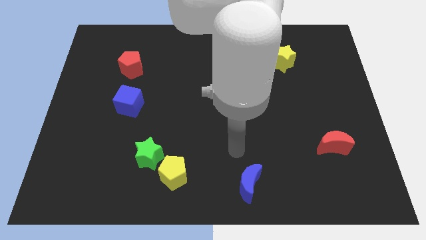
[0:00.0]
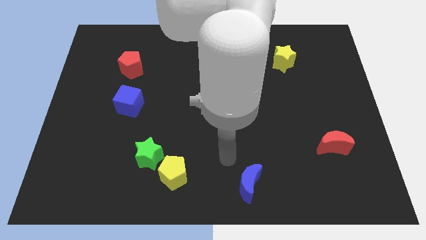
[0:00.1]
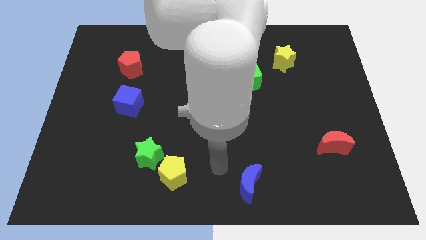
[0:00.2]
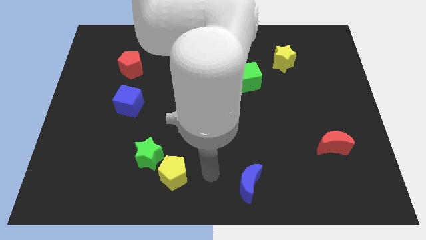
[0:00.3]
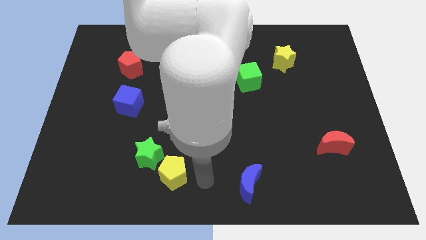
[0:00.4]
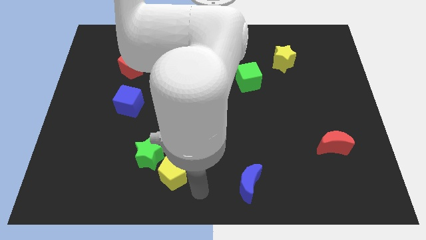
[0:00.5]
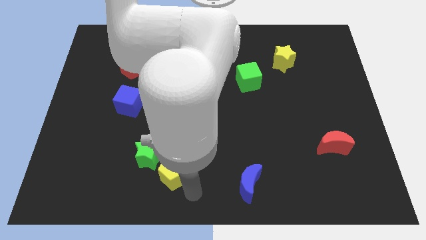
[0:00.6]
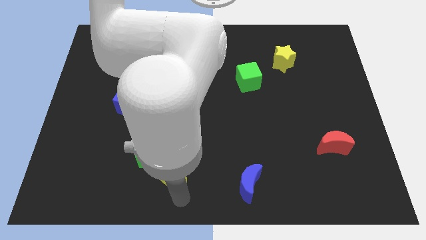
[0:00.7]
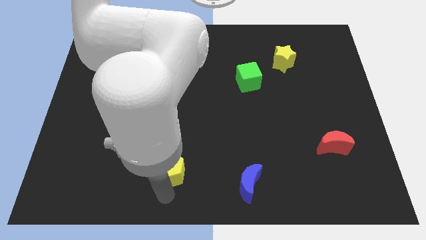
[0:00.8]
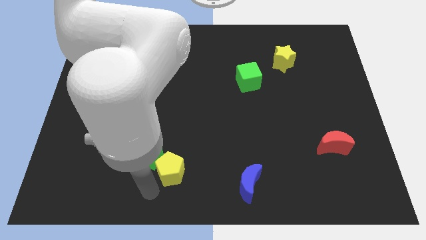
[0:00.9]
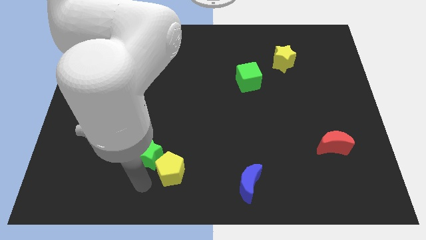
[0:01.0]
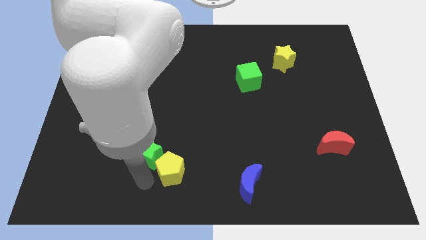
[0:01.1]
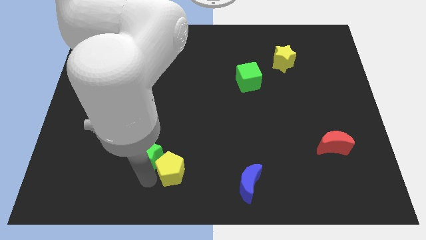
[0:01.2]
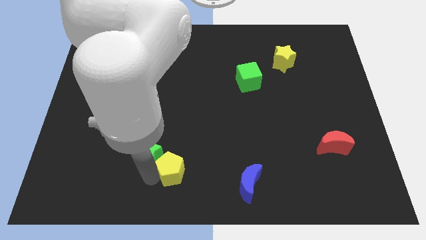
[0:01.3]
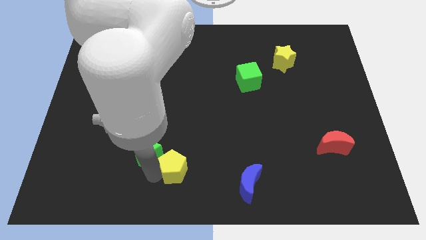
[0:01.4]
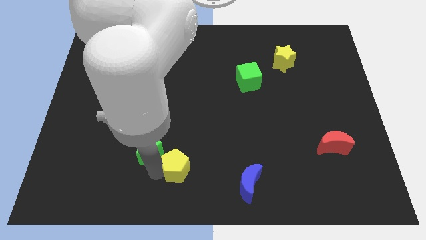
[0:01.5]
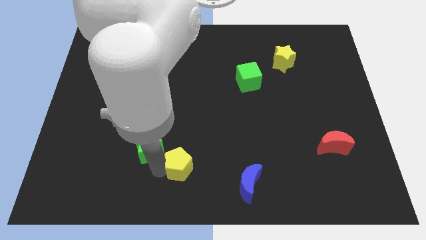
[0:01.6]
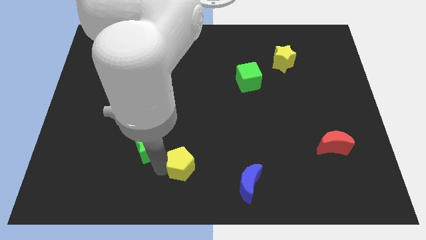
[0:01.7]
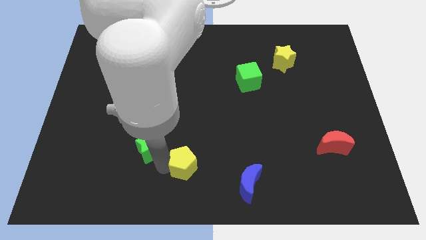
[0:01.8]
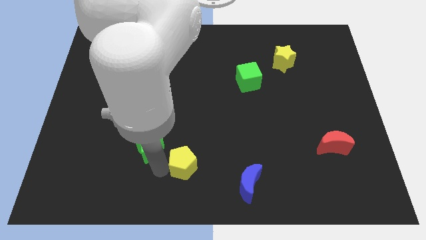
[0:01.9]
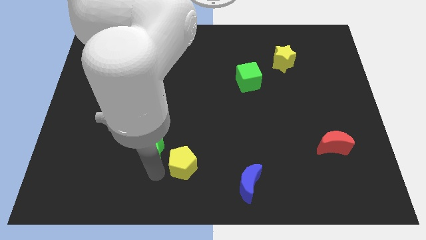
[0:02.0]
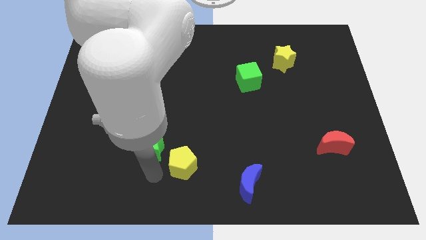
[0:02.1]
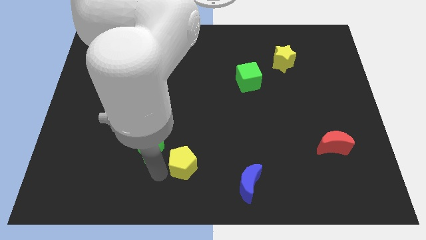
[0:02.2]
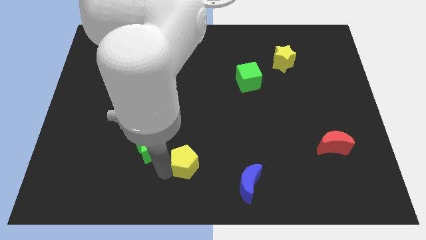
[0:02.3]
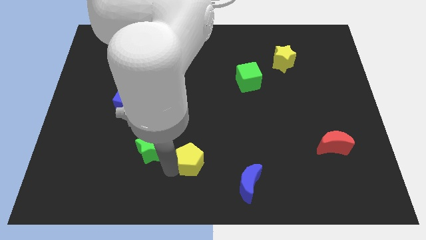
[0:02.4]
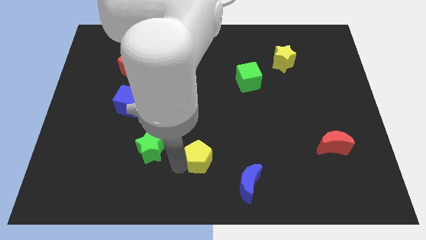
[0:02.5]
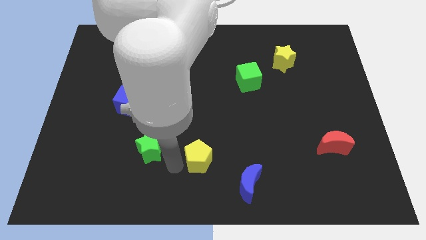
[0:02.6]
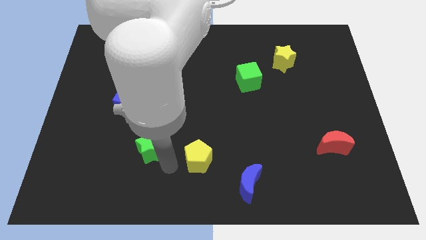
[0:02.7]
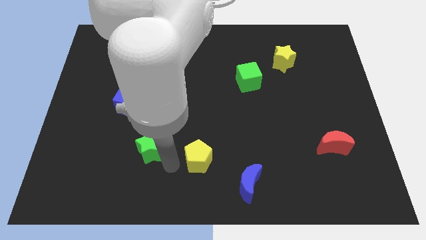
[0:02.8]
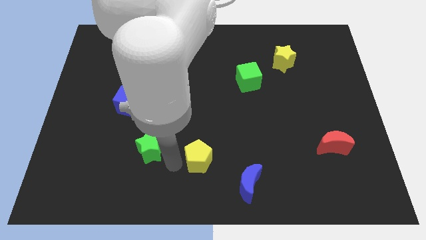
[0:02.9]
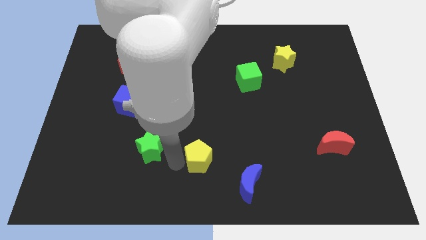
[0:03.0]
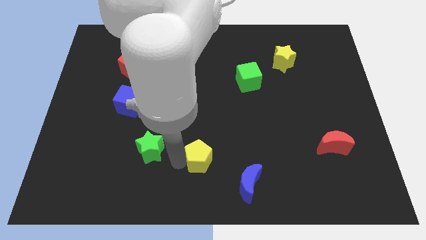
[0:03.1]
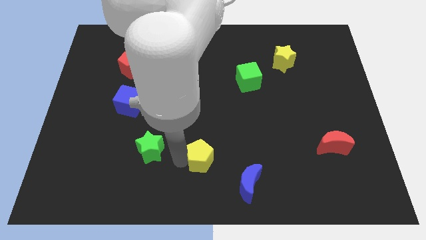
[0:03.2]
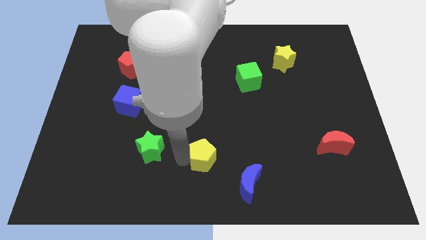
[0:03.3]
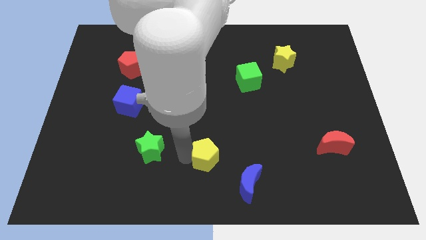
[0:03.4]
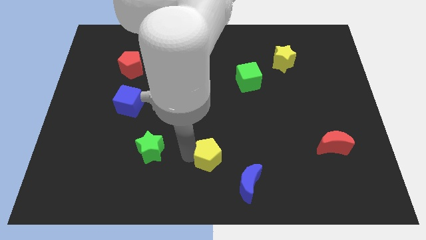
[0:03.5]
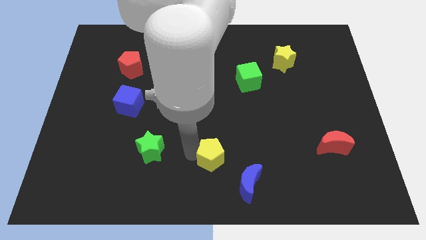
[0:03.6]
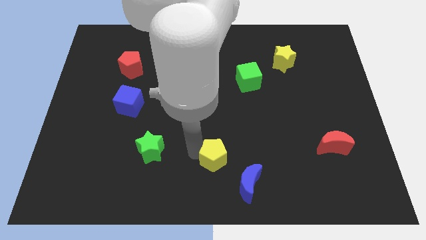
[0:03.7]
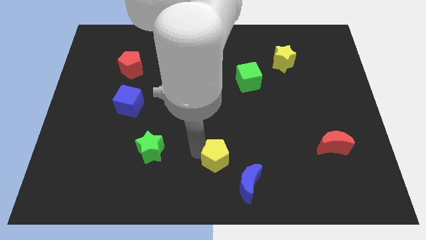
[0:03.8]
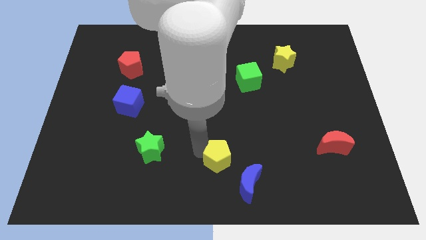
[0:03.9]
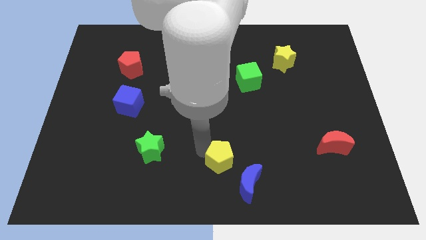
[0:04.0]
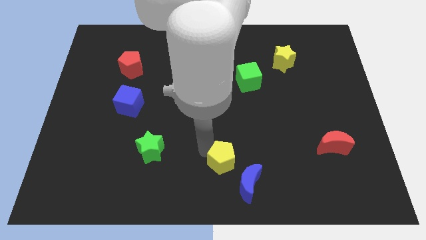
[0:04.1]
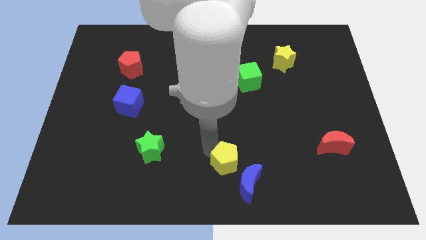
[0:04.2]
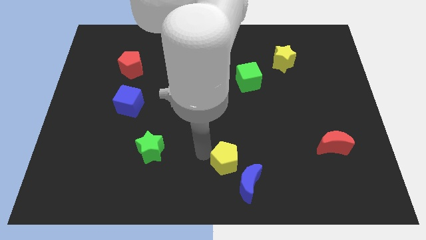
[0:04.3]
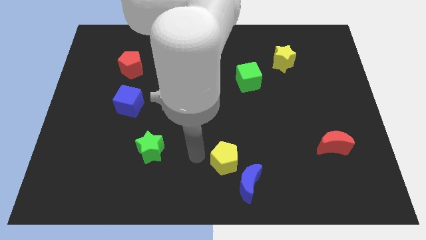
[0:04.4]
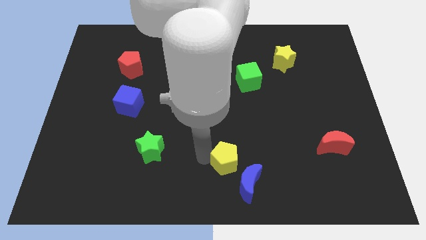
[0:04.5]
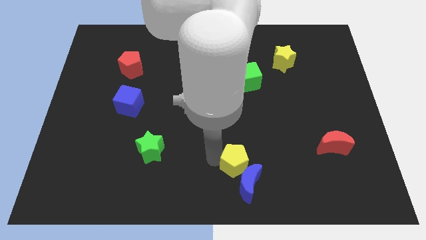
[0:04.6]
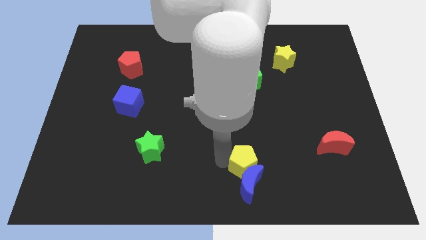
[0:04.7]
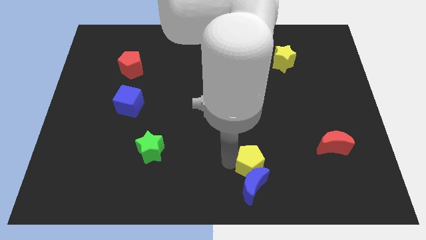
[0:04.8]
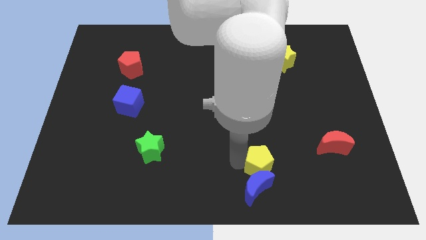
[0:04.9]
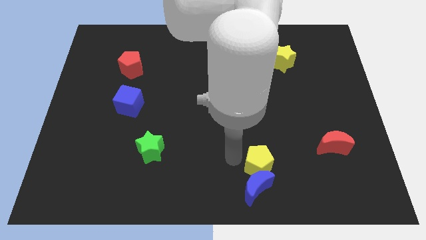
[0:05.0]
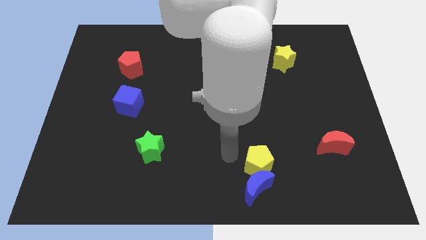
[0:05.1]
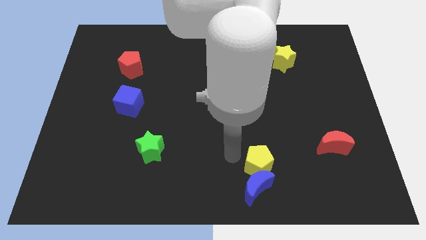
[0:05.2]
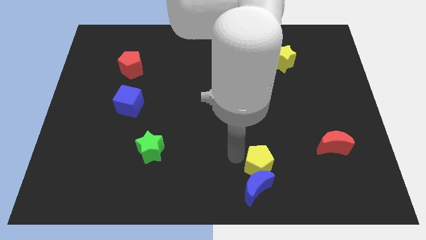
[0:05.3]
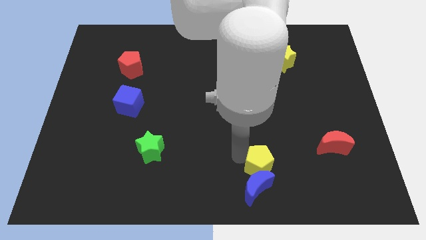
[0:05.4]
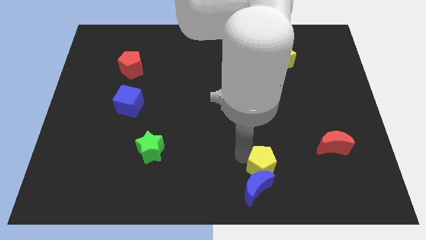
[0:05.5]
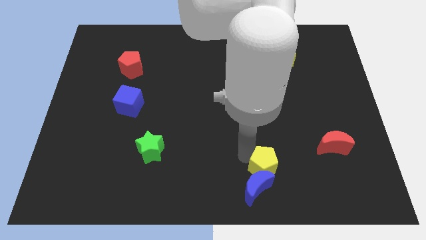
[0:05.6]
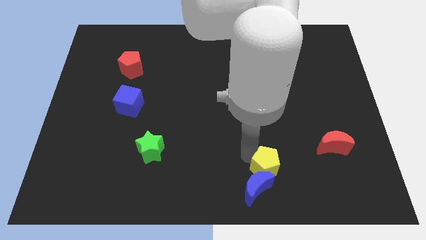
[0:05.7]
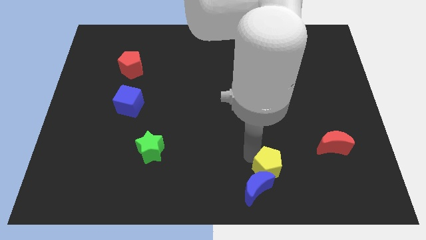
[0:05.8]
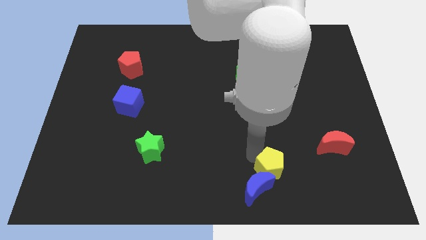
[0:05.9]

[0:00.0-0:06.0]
move the yellow pentagon right

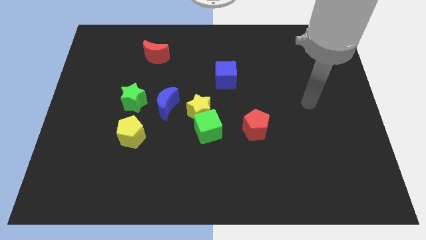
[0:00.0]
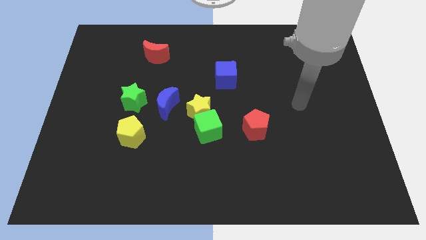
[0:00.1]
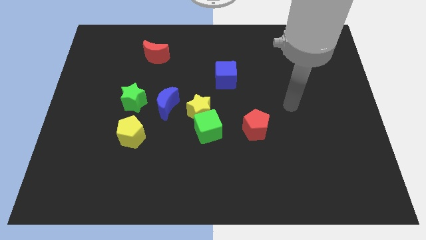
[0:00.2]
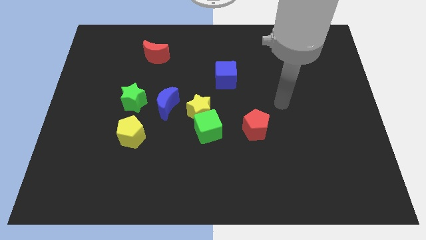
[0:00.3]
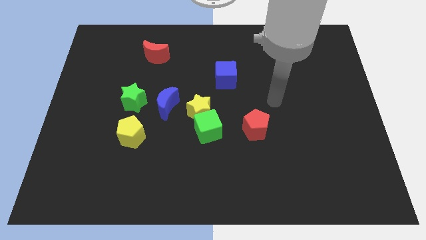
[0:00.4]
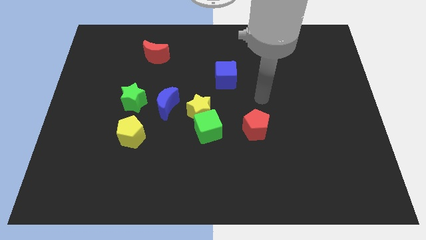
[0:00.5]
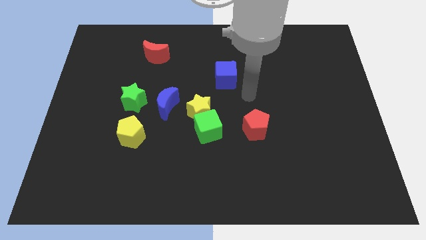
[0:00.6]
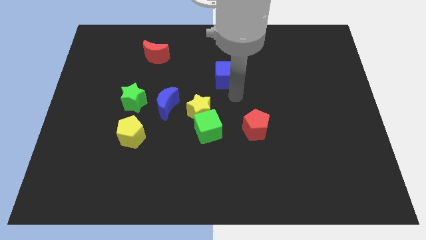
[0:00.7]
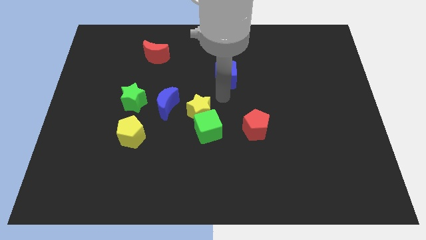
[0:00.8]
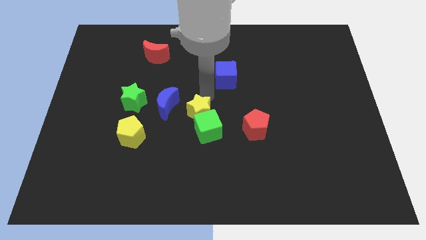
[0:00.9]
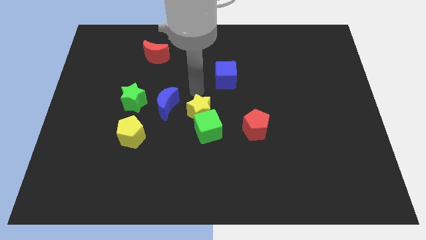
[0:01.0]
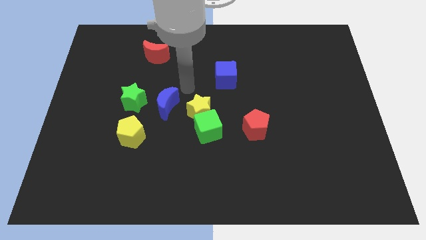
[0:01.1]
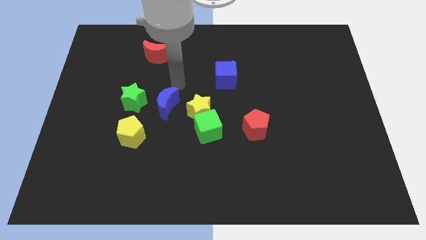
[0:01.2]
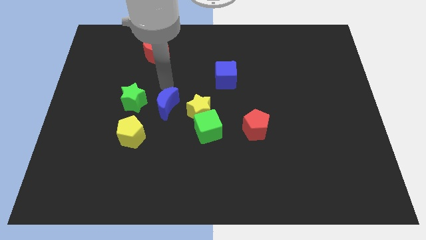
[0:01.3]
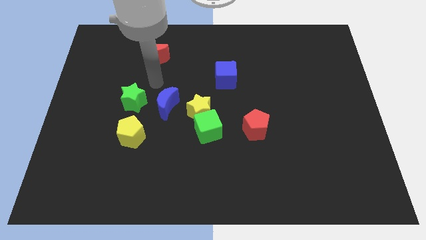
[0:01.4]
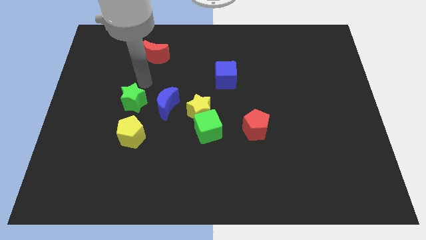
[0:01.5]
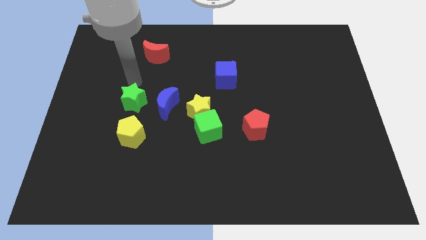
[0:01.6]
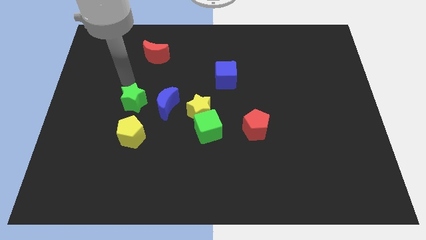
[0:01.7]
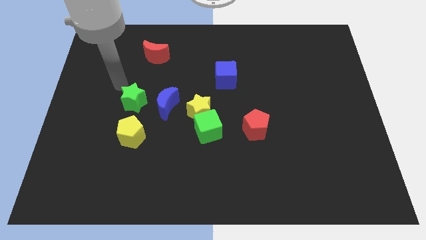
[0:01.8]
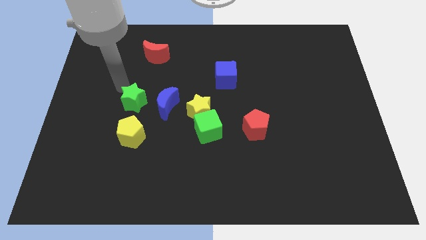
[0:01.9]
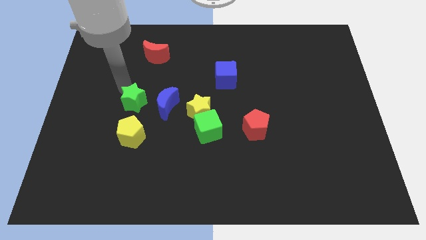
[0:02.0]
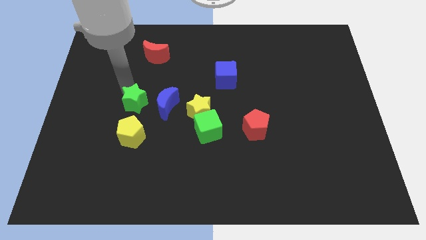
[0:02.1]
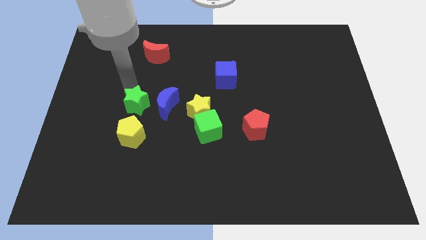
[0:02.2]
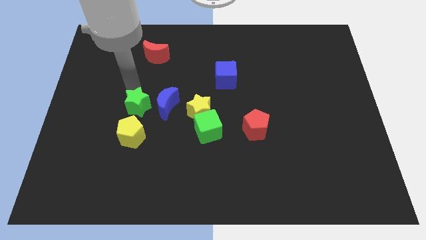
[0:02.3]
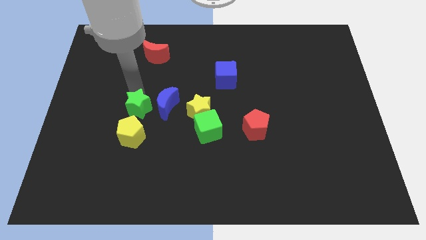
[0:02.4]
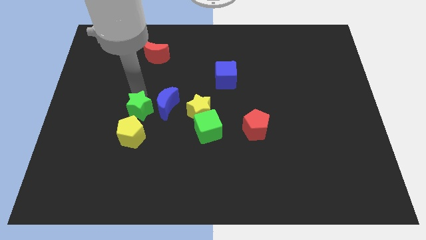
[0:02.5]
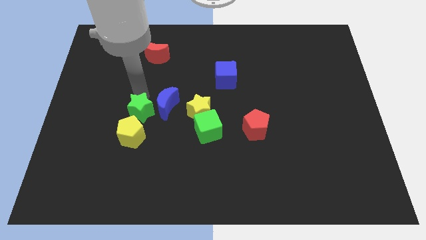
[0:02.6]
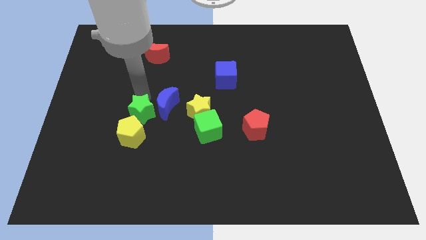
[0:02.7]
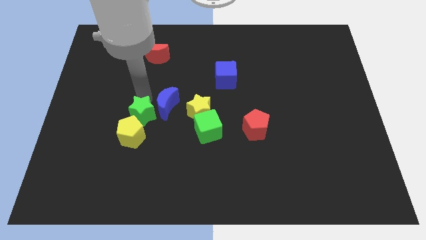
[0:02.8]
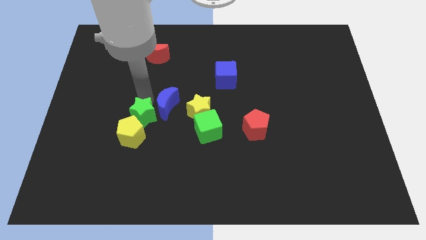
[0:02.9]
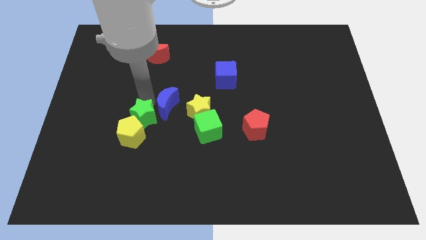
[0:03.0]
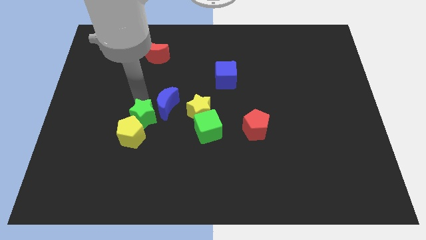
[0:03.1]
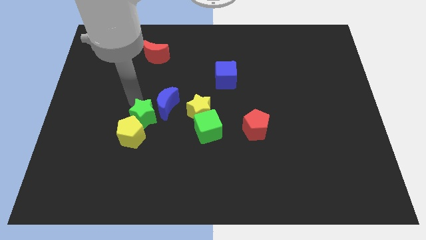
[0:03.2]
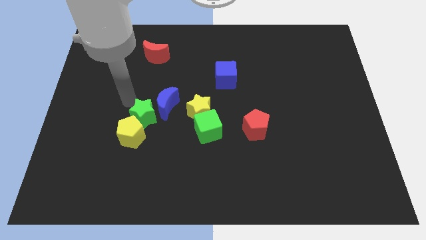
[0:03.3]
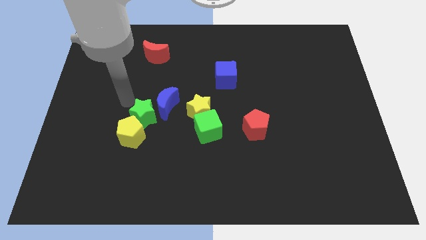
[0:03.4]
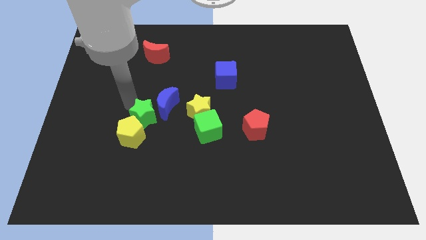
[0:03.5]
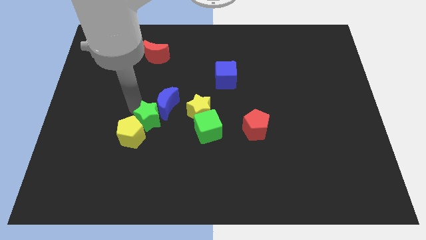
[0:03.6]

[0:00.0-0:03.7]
move the green star down and right diagonally slightly
